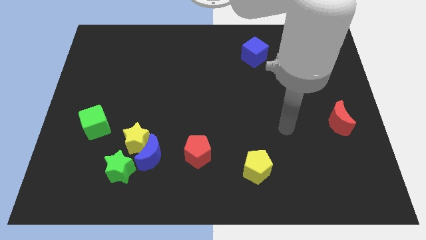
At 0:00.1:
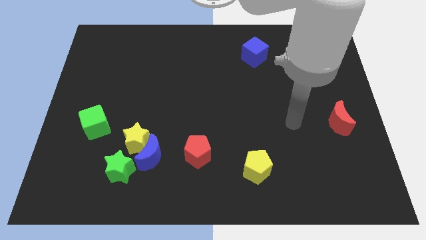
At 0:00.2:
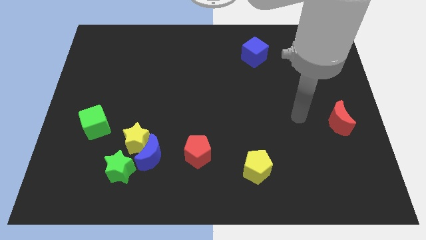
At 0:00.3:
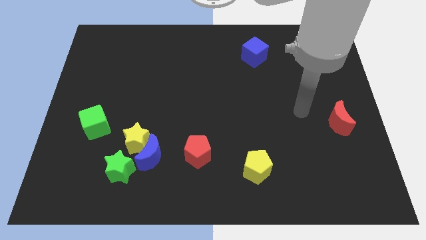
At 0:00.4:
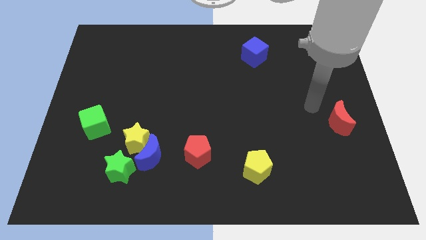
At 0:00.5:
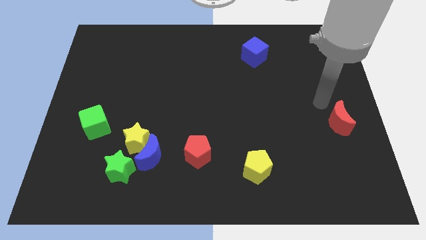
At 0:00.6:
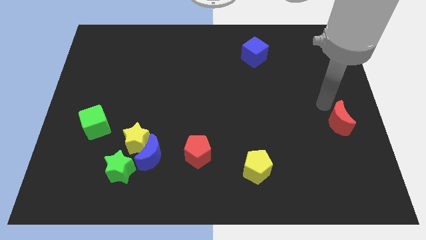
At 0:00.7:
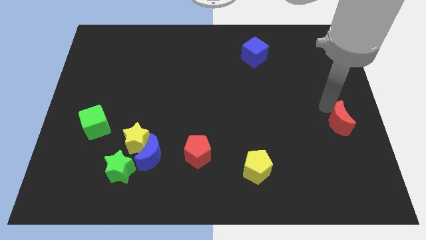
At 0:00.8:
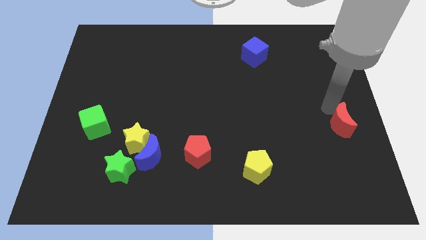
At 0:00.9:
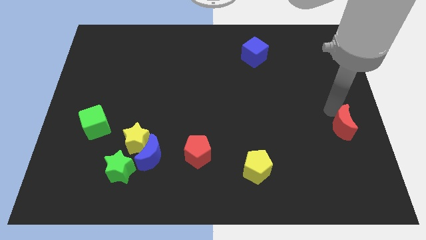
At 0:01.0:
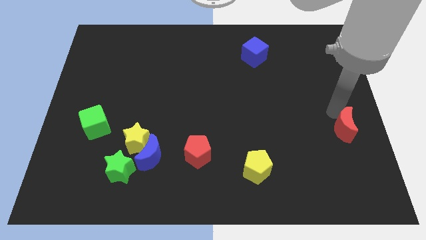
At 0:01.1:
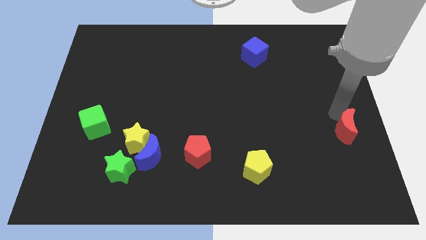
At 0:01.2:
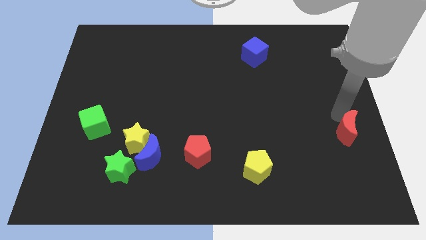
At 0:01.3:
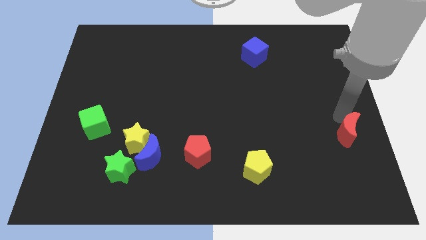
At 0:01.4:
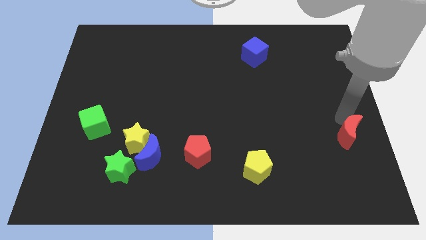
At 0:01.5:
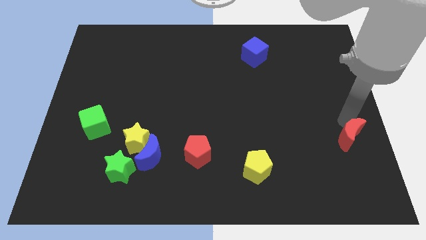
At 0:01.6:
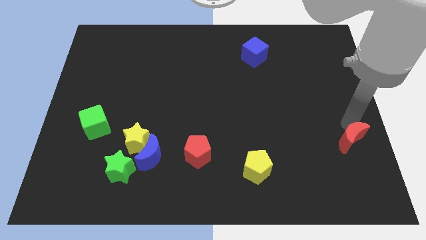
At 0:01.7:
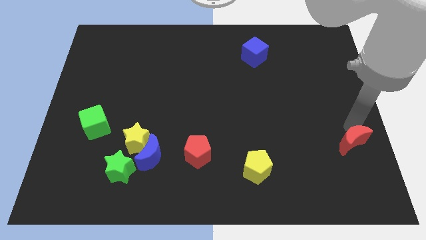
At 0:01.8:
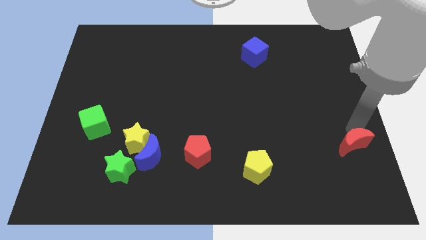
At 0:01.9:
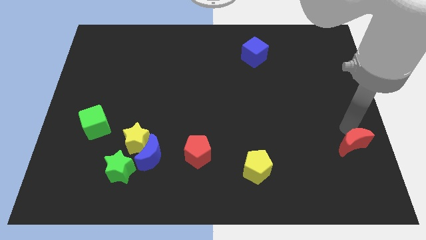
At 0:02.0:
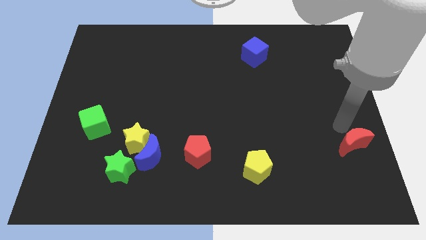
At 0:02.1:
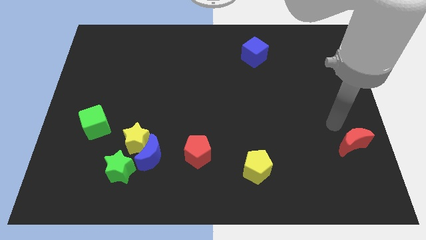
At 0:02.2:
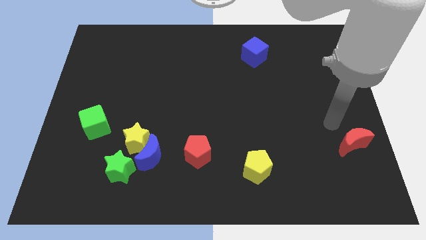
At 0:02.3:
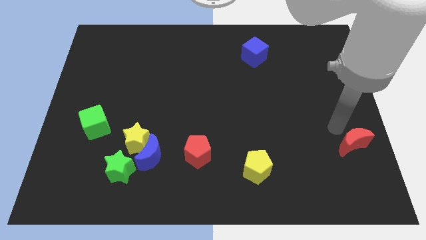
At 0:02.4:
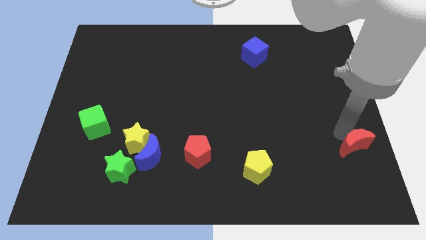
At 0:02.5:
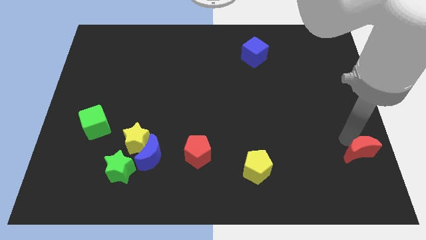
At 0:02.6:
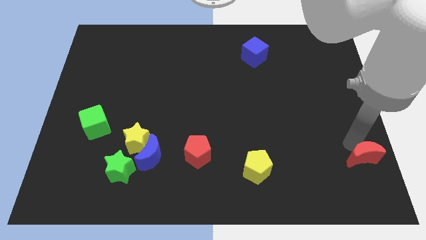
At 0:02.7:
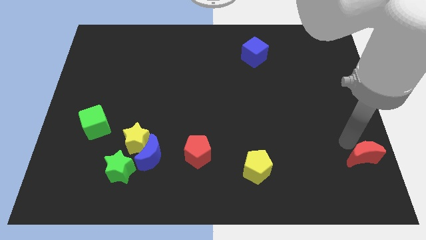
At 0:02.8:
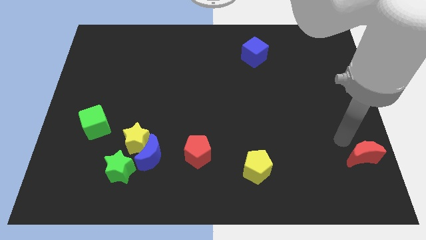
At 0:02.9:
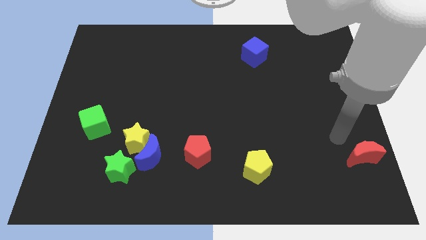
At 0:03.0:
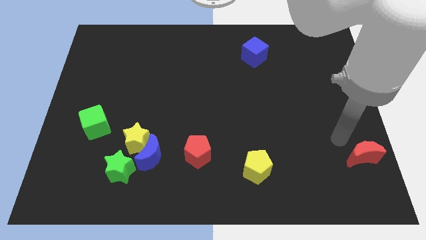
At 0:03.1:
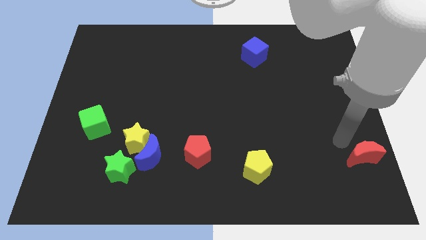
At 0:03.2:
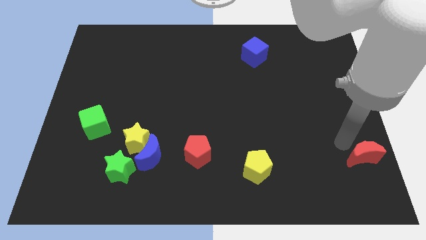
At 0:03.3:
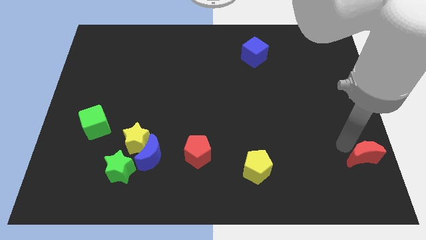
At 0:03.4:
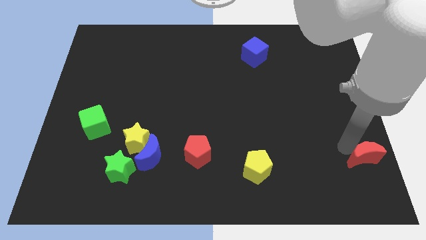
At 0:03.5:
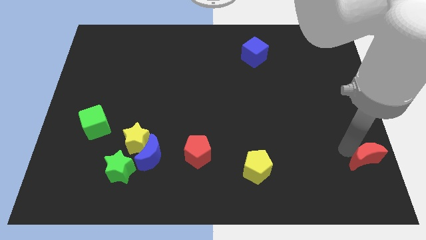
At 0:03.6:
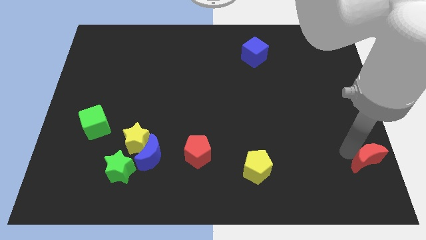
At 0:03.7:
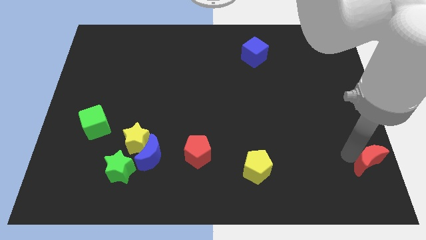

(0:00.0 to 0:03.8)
move the red moon to the bottom right corner

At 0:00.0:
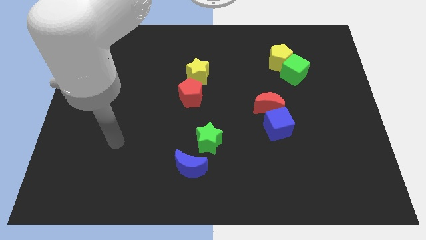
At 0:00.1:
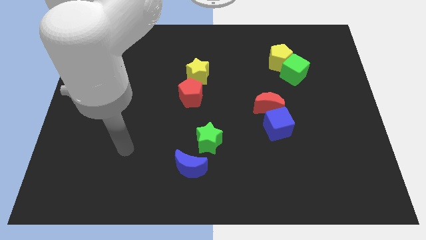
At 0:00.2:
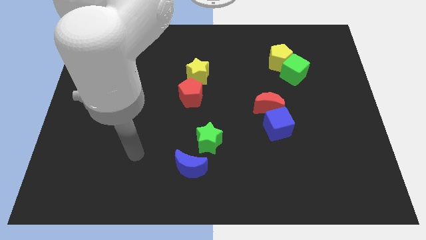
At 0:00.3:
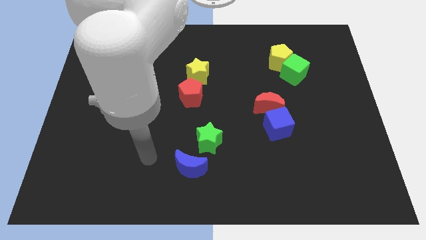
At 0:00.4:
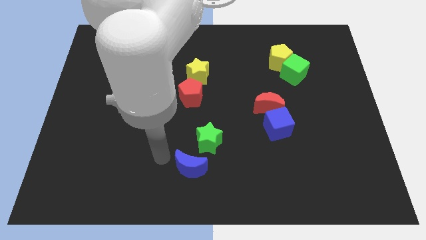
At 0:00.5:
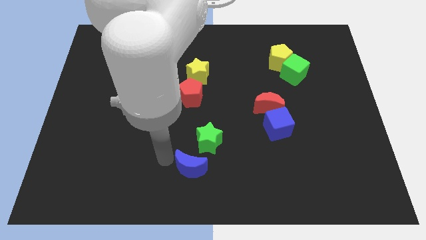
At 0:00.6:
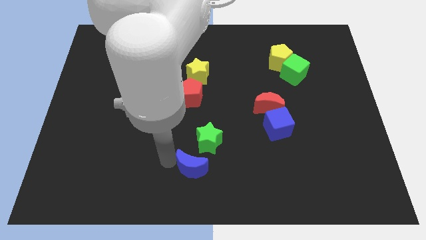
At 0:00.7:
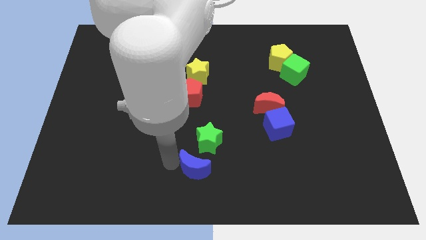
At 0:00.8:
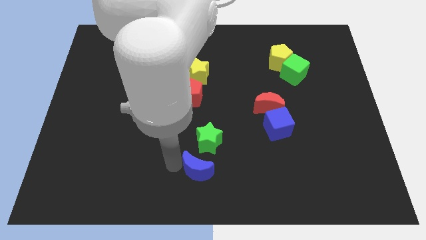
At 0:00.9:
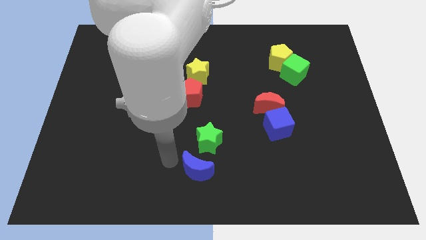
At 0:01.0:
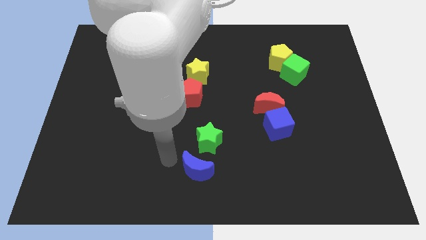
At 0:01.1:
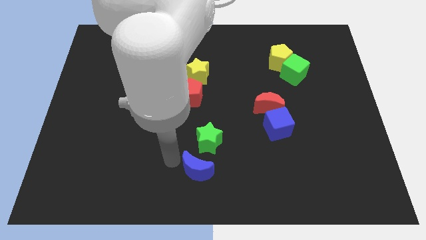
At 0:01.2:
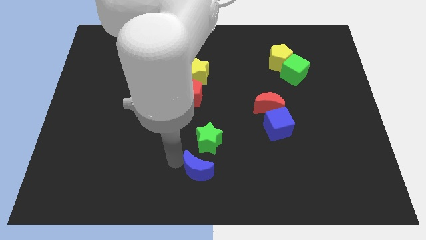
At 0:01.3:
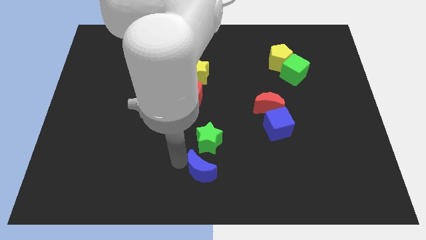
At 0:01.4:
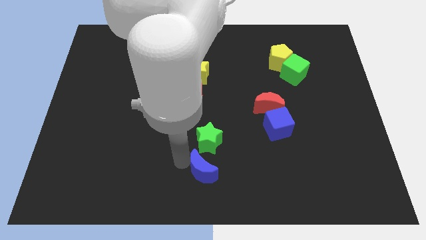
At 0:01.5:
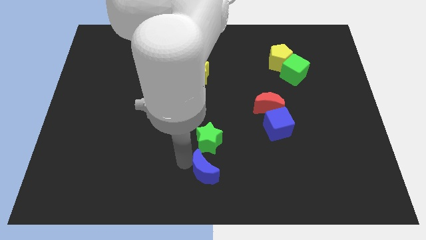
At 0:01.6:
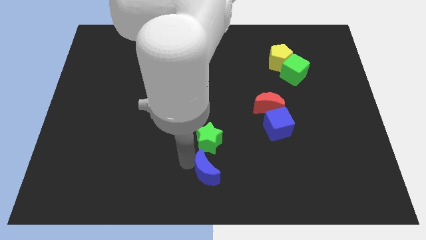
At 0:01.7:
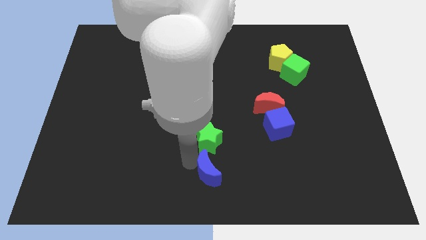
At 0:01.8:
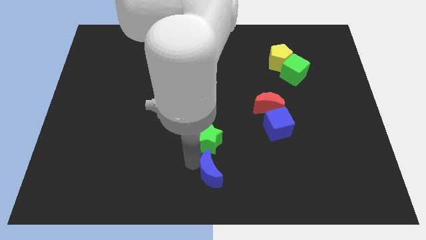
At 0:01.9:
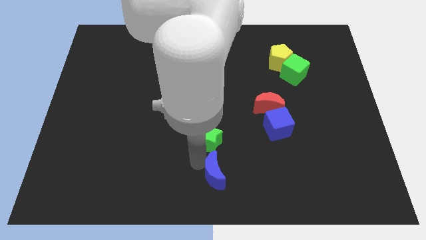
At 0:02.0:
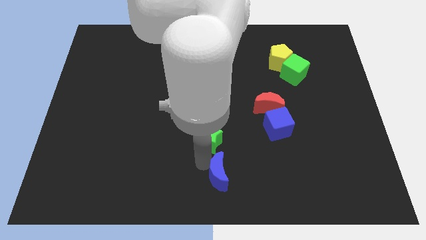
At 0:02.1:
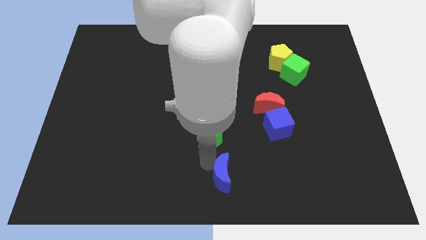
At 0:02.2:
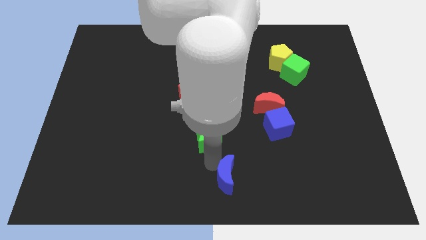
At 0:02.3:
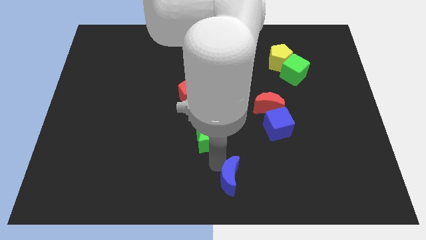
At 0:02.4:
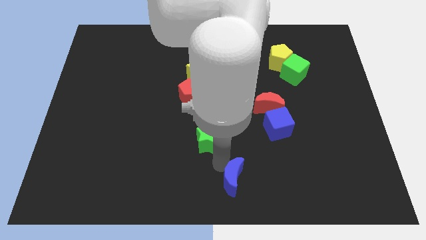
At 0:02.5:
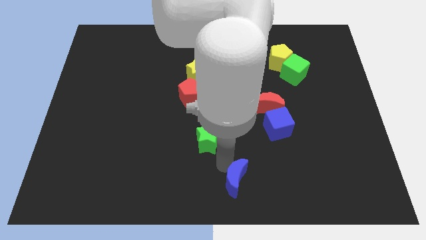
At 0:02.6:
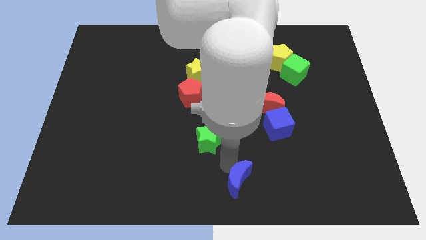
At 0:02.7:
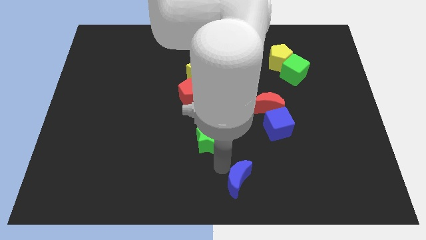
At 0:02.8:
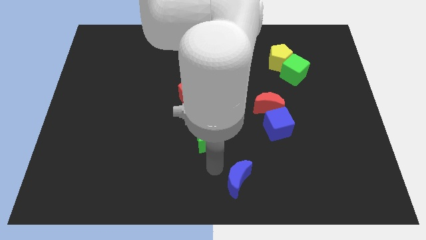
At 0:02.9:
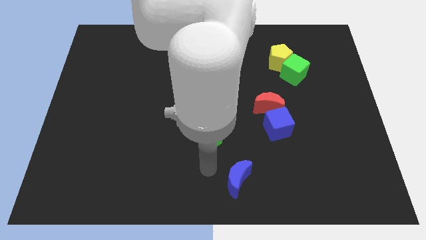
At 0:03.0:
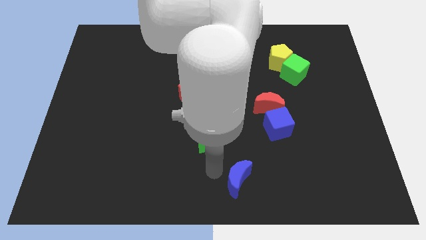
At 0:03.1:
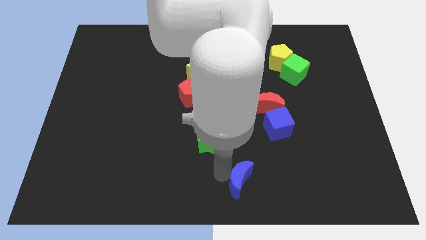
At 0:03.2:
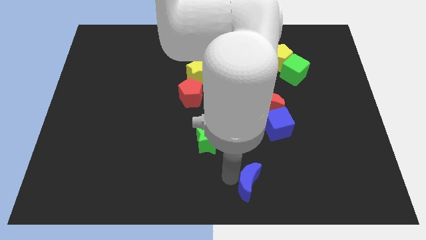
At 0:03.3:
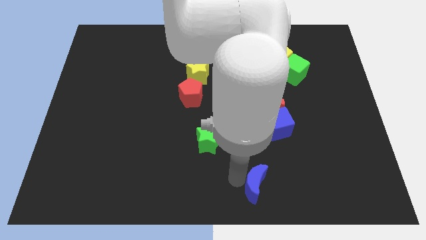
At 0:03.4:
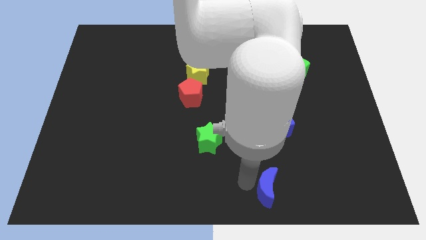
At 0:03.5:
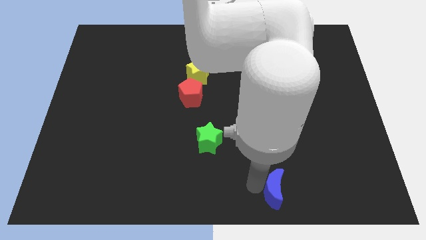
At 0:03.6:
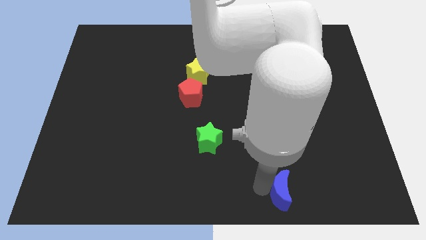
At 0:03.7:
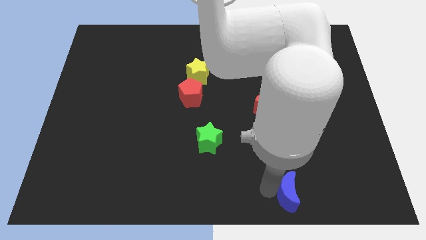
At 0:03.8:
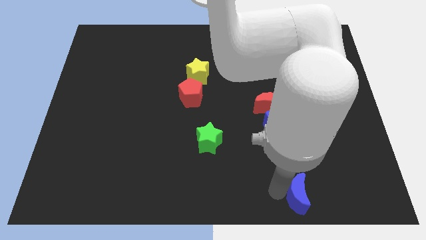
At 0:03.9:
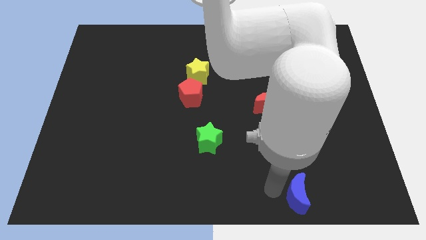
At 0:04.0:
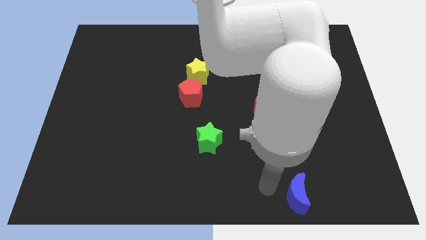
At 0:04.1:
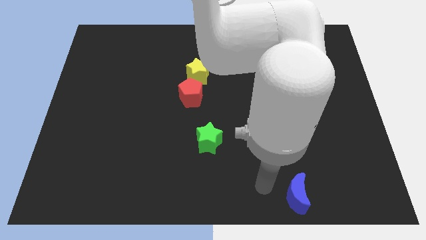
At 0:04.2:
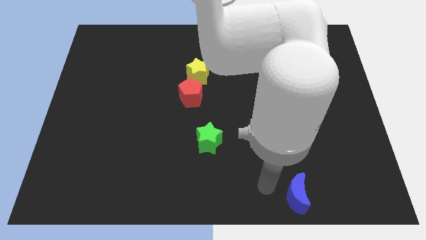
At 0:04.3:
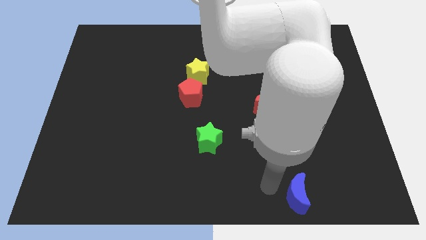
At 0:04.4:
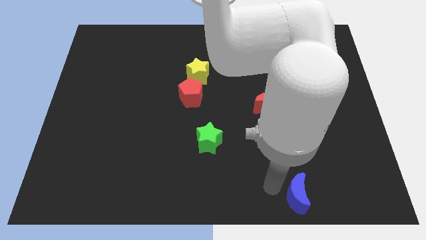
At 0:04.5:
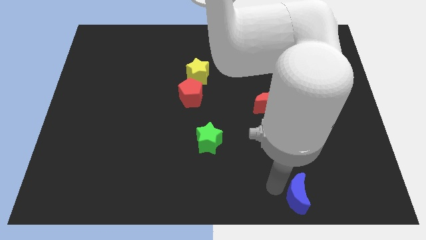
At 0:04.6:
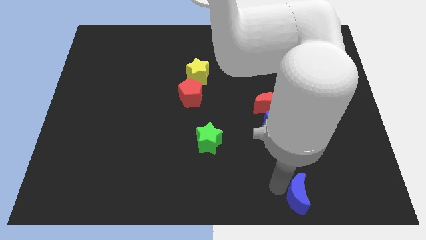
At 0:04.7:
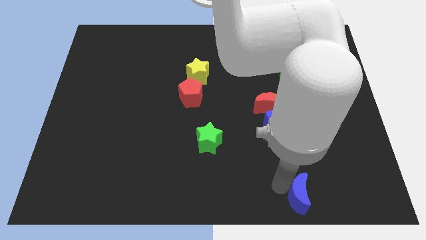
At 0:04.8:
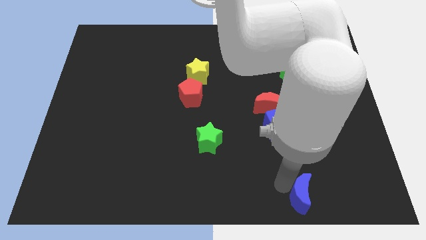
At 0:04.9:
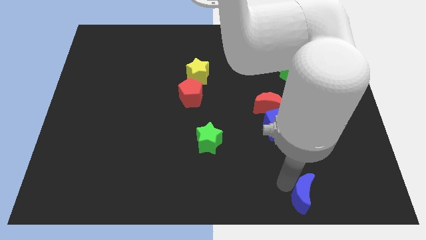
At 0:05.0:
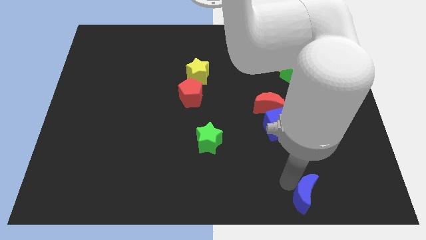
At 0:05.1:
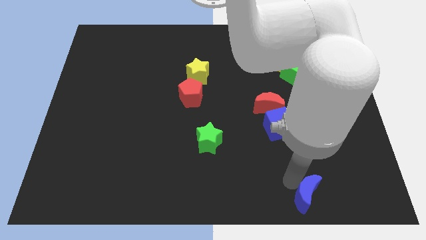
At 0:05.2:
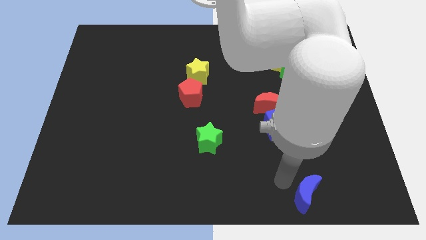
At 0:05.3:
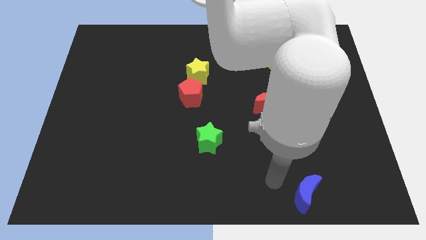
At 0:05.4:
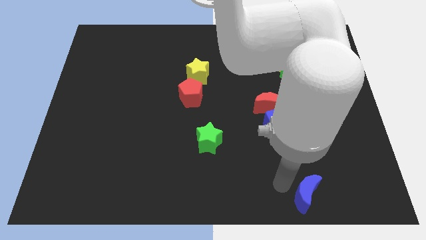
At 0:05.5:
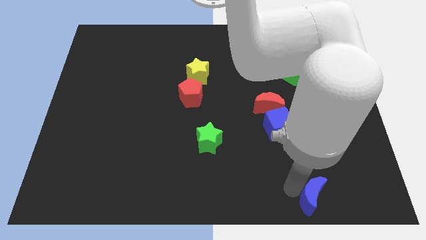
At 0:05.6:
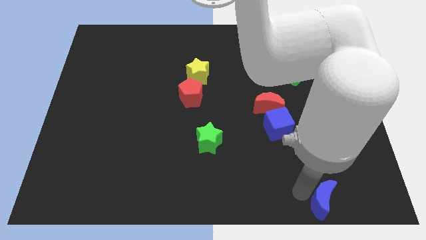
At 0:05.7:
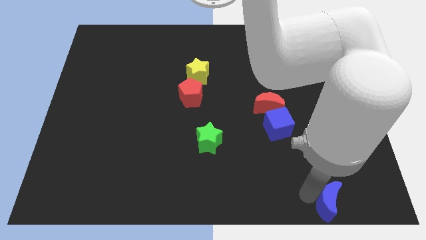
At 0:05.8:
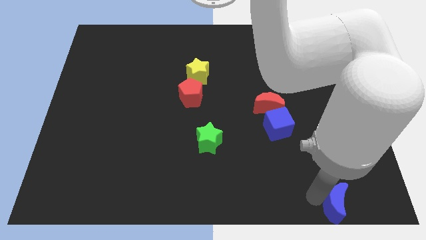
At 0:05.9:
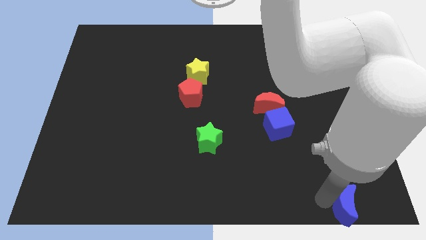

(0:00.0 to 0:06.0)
push the blue moon to the bottom right
